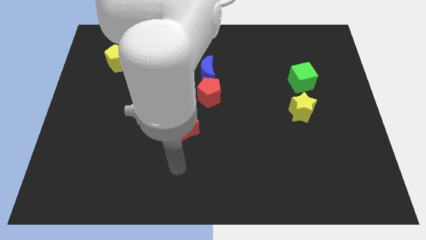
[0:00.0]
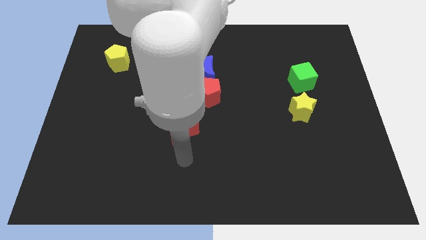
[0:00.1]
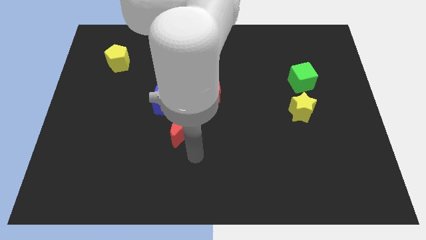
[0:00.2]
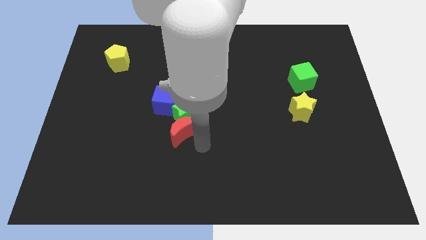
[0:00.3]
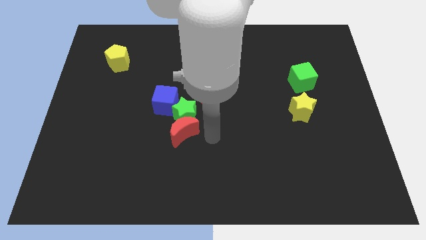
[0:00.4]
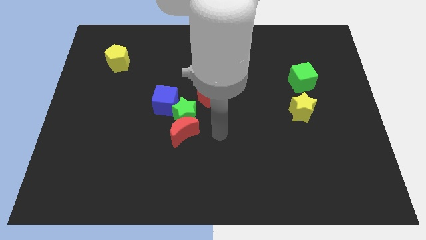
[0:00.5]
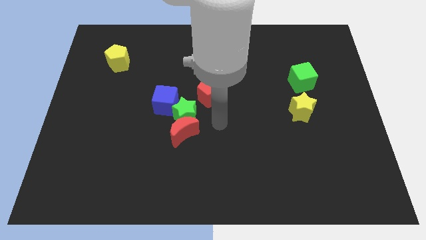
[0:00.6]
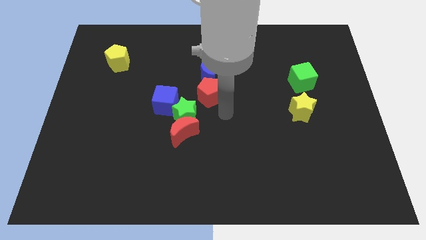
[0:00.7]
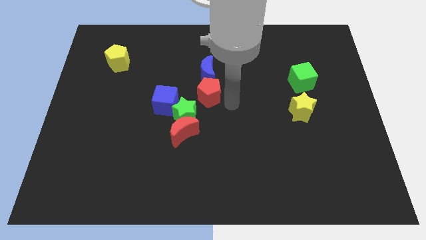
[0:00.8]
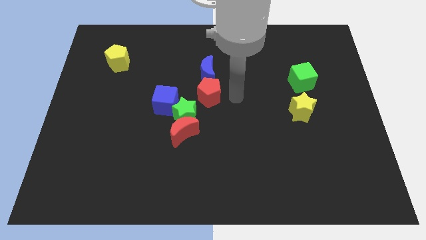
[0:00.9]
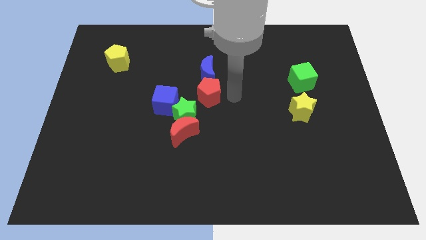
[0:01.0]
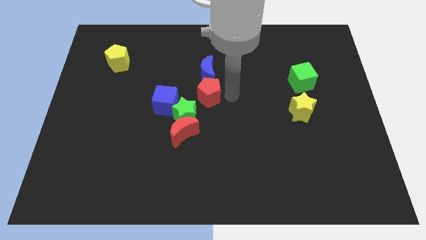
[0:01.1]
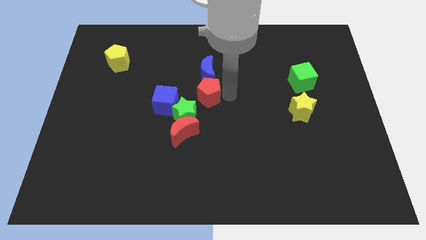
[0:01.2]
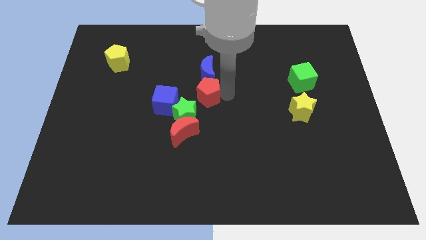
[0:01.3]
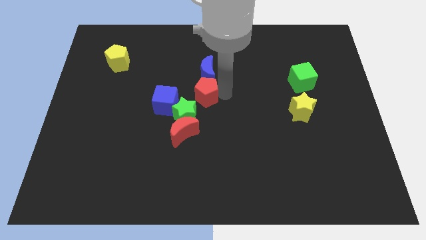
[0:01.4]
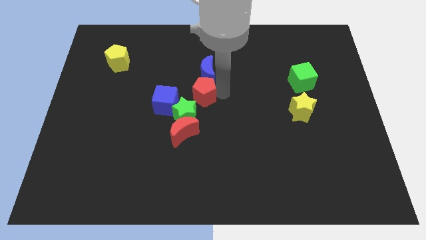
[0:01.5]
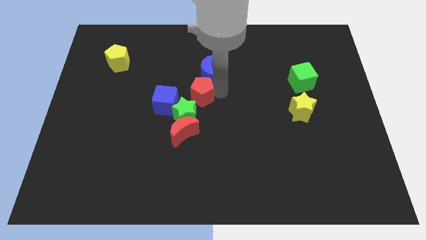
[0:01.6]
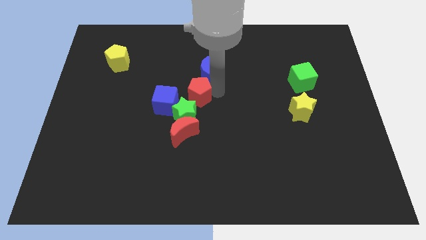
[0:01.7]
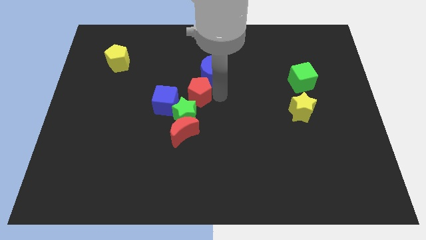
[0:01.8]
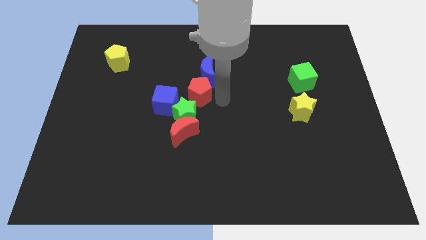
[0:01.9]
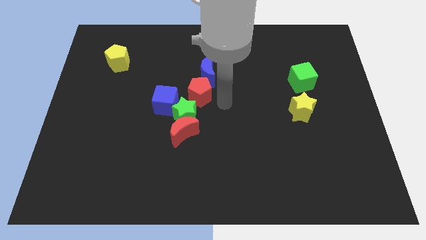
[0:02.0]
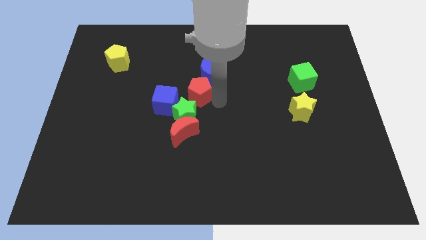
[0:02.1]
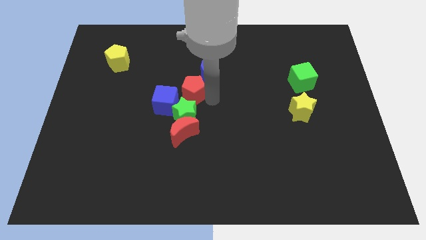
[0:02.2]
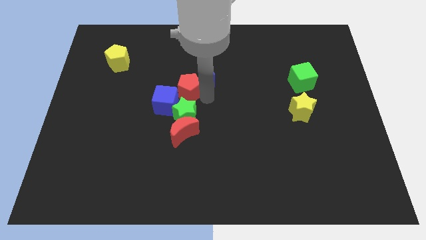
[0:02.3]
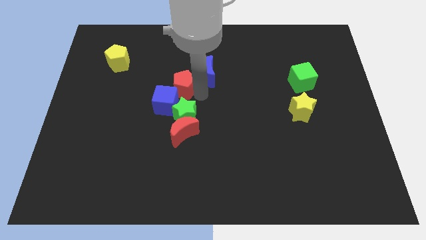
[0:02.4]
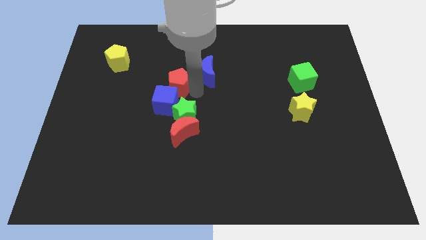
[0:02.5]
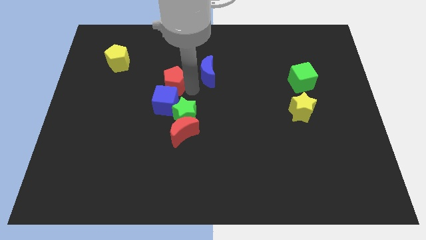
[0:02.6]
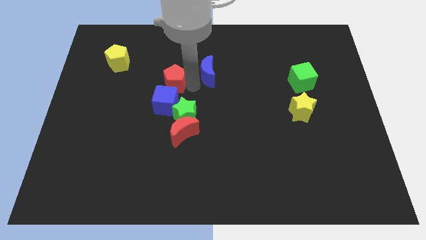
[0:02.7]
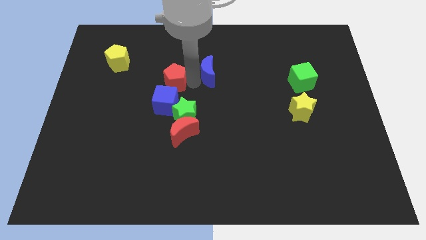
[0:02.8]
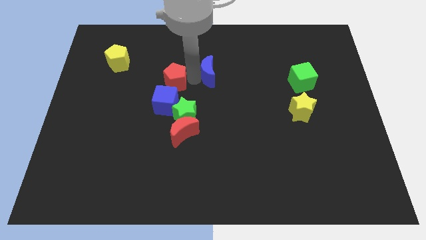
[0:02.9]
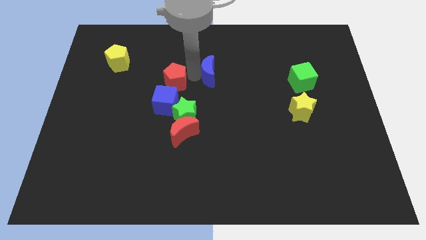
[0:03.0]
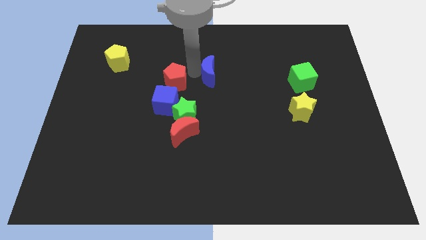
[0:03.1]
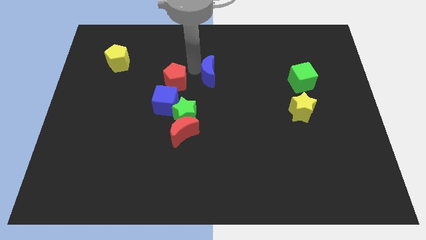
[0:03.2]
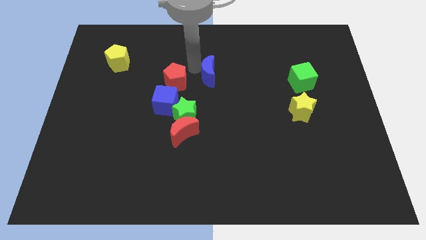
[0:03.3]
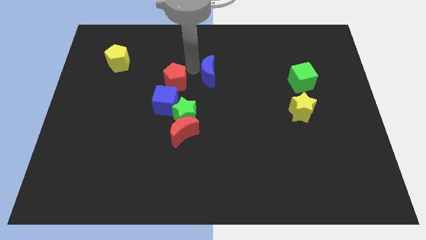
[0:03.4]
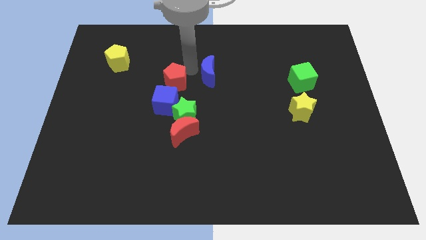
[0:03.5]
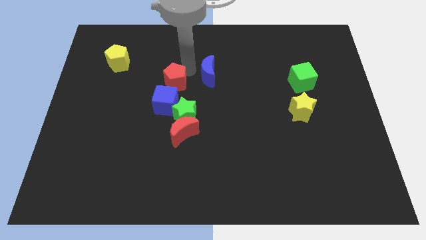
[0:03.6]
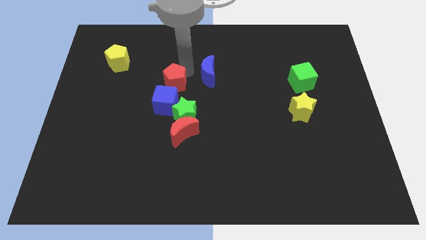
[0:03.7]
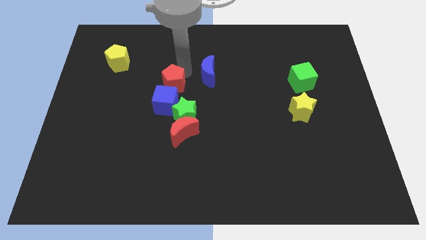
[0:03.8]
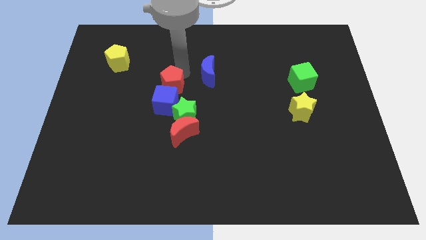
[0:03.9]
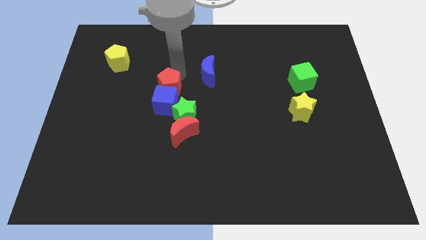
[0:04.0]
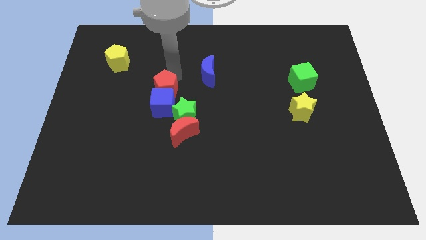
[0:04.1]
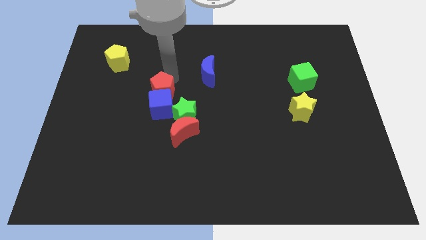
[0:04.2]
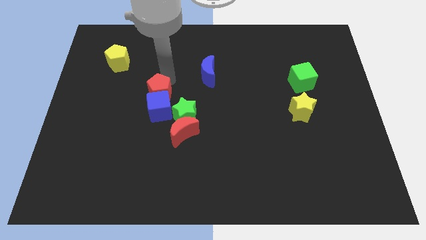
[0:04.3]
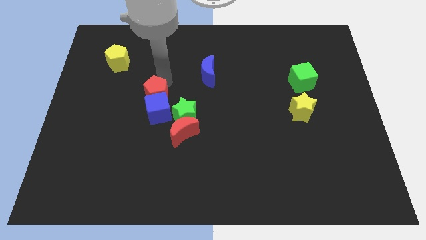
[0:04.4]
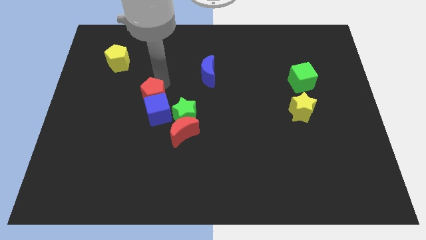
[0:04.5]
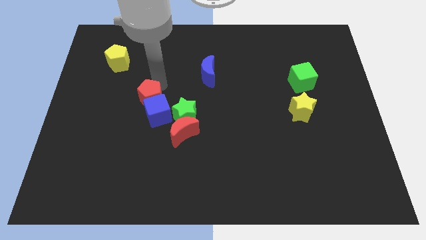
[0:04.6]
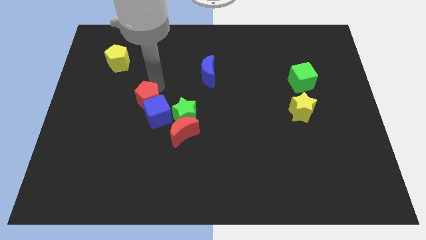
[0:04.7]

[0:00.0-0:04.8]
move the red pentagon just left of the green star

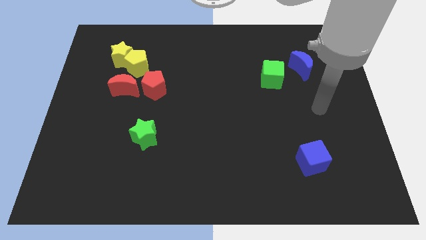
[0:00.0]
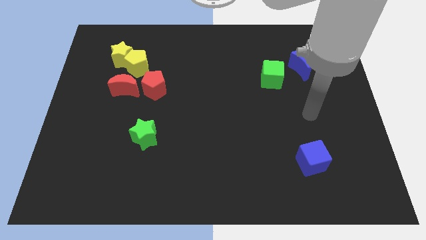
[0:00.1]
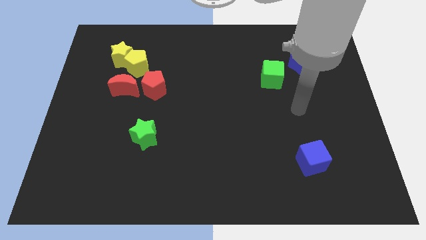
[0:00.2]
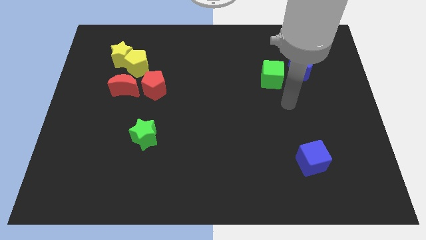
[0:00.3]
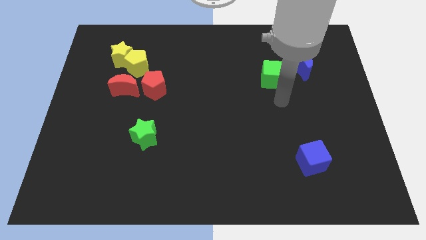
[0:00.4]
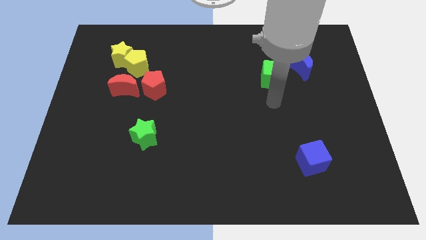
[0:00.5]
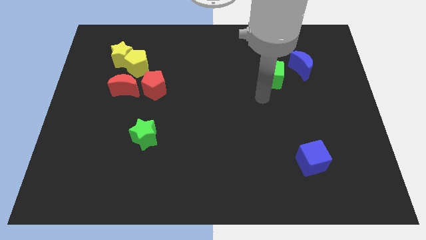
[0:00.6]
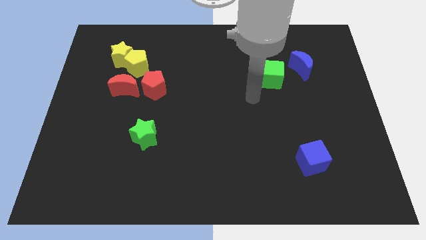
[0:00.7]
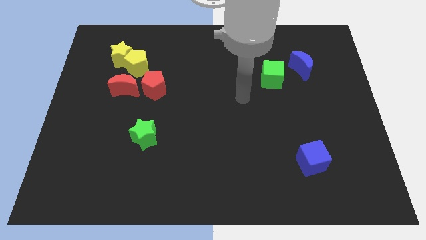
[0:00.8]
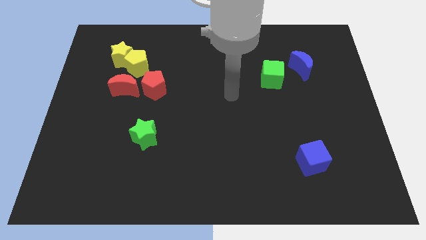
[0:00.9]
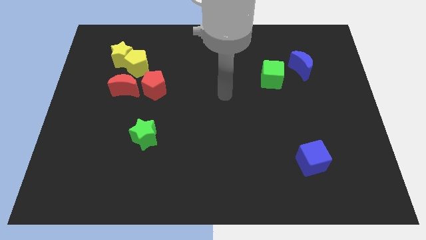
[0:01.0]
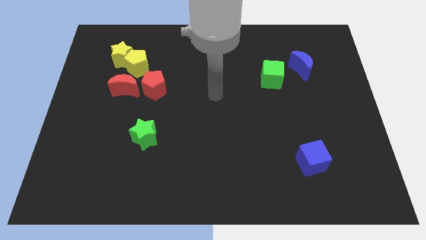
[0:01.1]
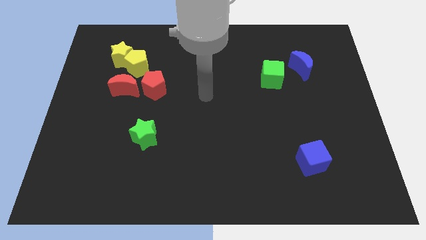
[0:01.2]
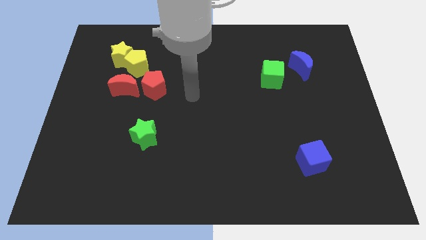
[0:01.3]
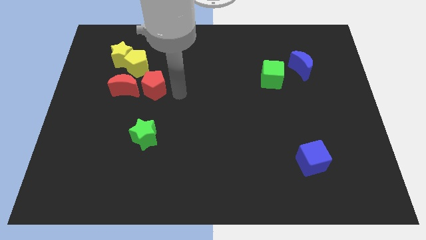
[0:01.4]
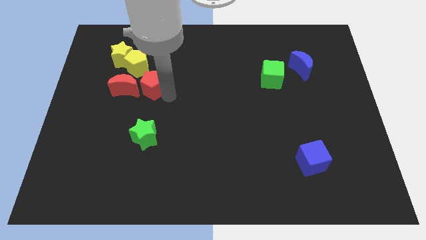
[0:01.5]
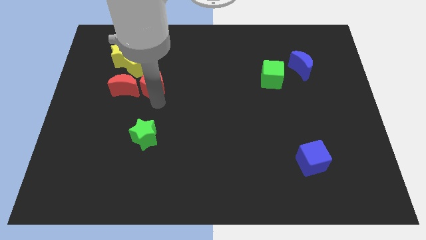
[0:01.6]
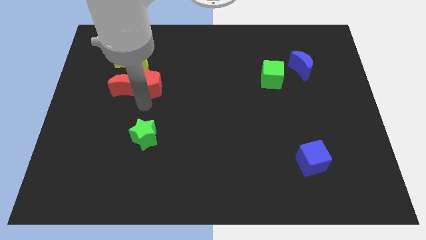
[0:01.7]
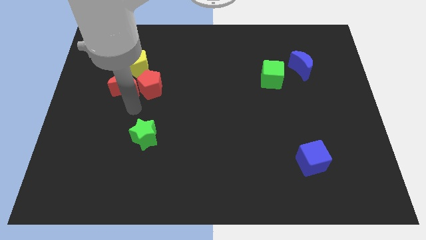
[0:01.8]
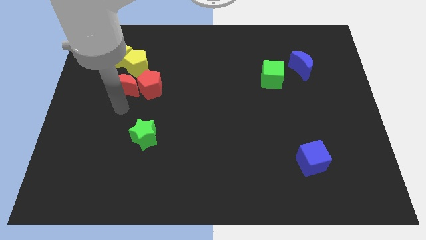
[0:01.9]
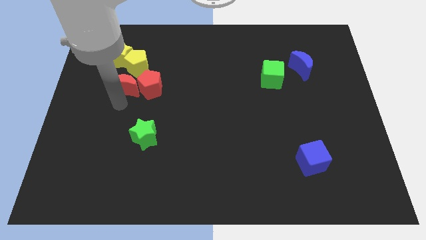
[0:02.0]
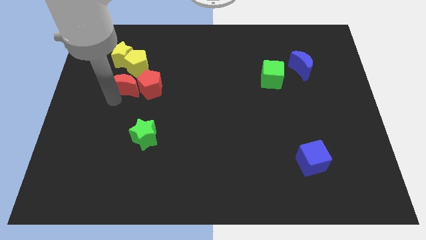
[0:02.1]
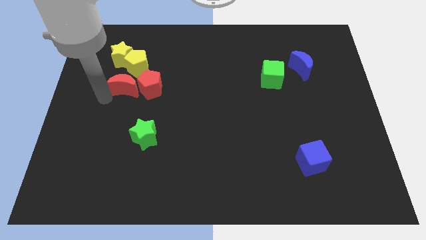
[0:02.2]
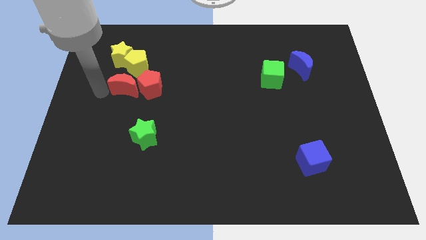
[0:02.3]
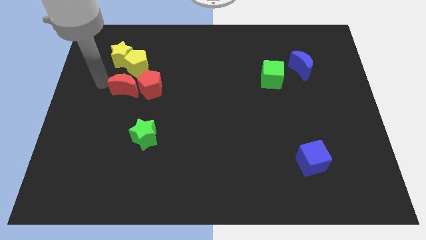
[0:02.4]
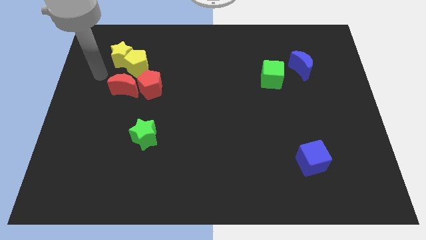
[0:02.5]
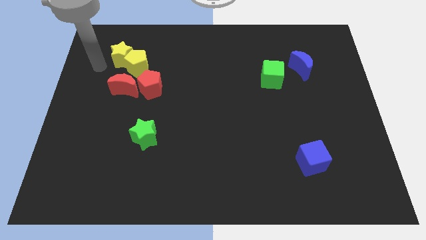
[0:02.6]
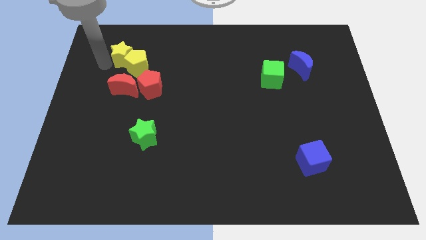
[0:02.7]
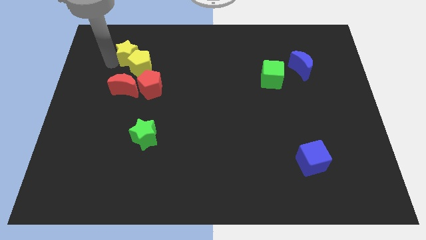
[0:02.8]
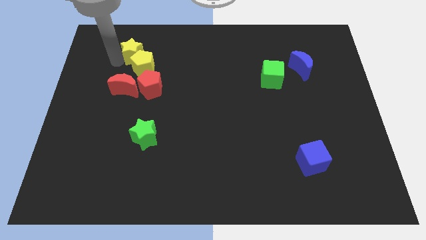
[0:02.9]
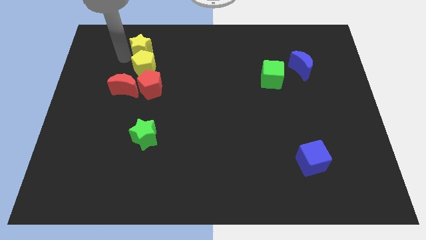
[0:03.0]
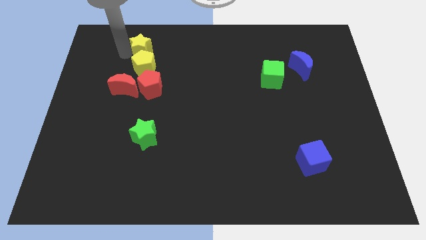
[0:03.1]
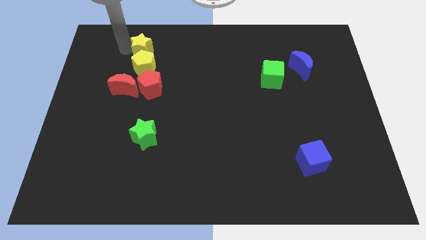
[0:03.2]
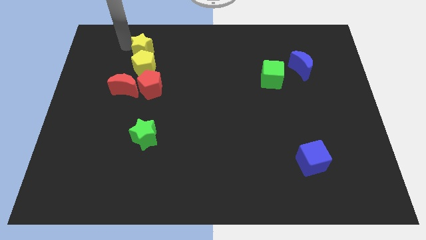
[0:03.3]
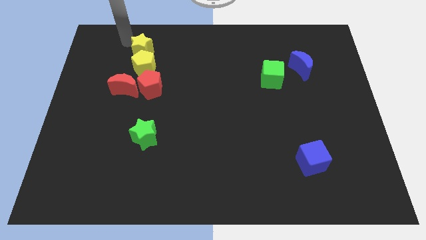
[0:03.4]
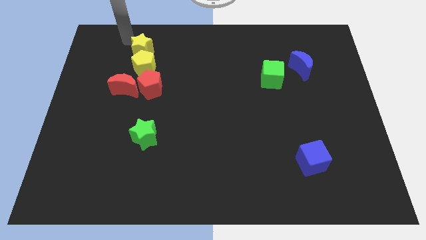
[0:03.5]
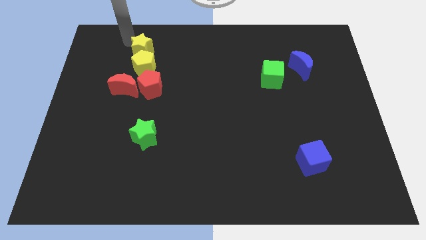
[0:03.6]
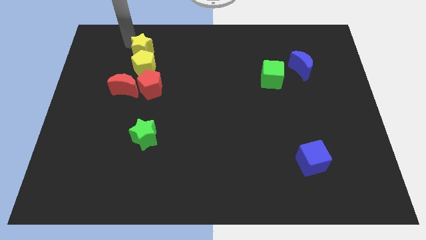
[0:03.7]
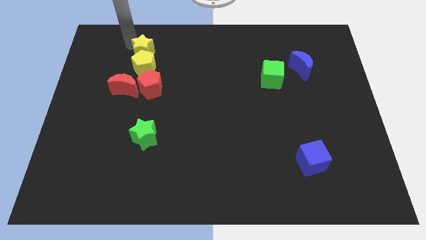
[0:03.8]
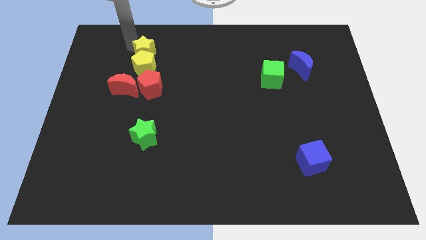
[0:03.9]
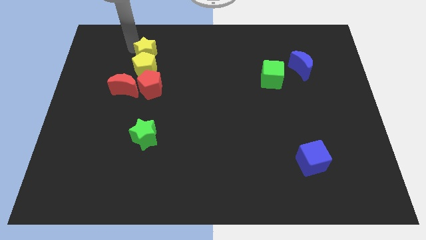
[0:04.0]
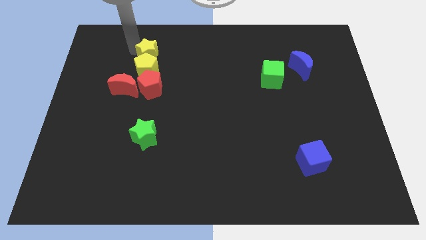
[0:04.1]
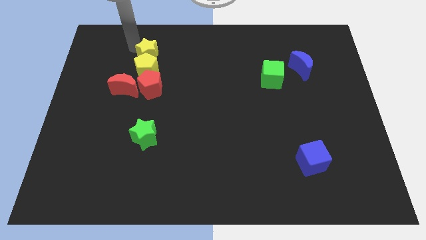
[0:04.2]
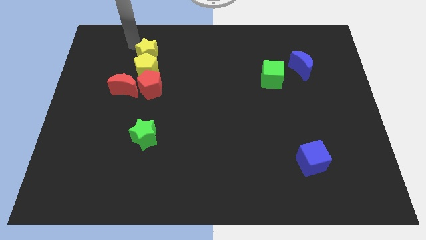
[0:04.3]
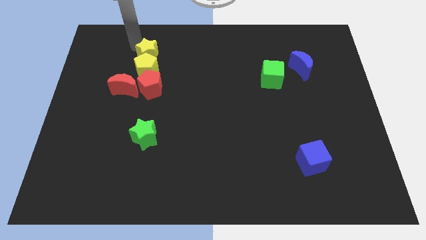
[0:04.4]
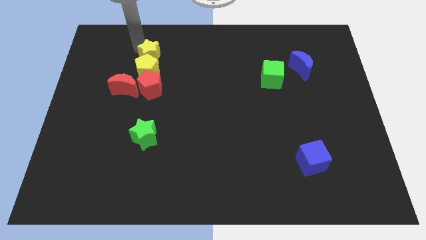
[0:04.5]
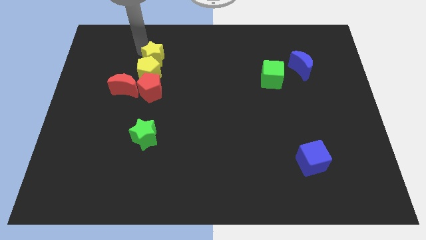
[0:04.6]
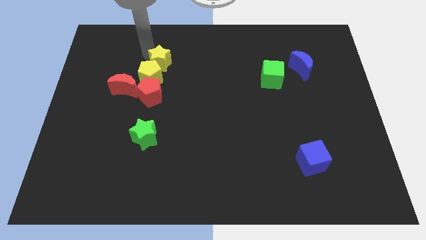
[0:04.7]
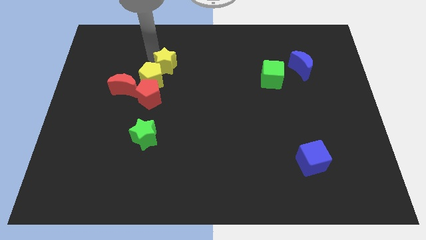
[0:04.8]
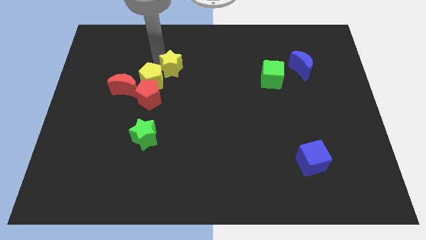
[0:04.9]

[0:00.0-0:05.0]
move the yellow star to the top right side of the red pentagon
